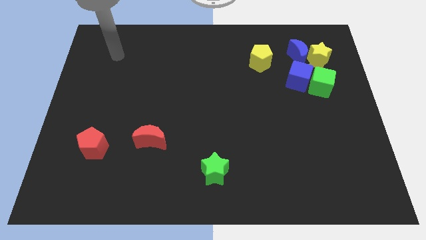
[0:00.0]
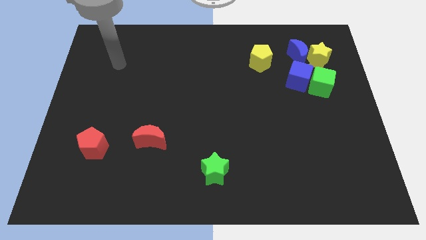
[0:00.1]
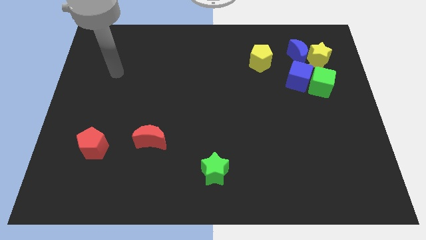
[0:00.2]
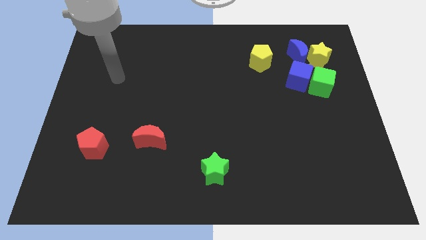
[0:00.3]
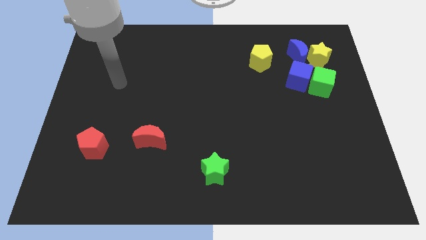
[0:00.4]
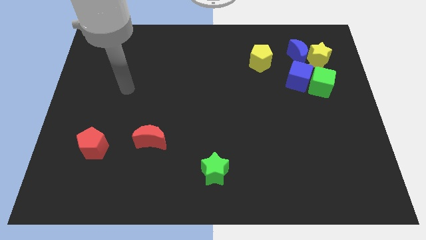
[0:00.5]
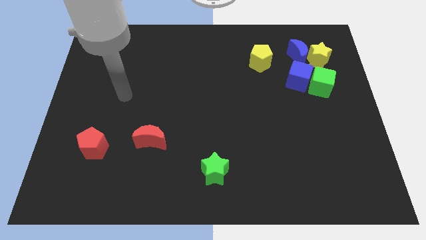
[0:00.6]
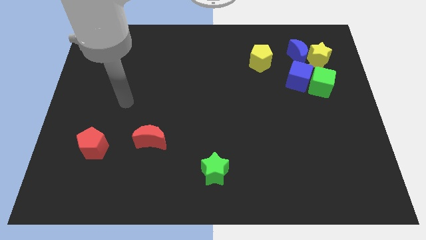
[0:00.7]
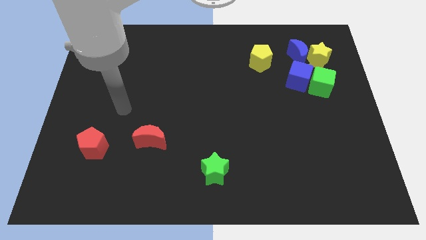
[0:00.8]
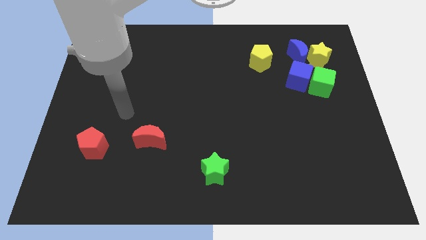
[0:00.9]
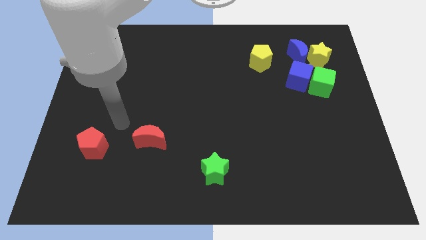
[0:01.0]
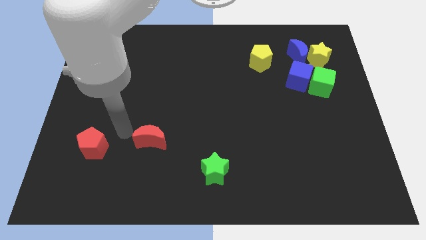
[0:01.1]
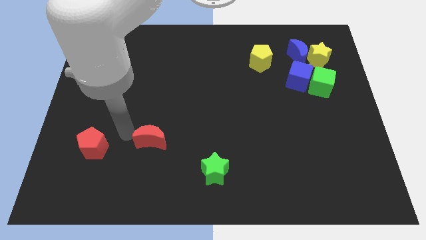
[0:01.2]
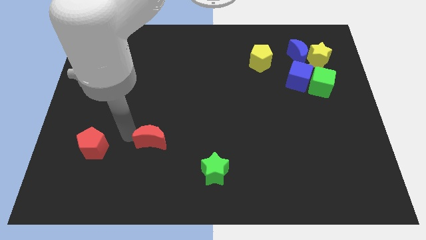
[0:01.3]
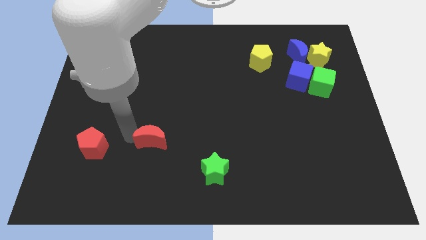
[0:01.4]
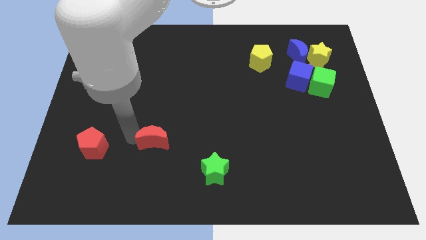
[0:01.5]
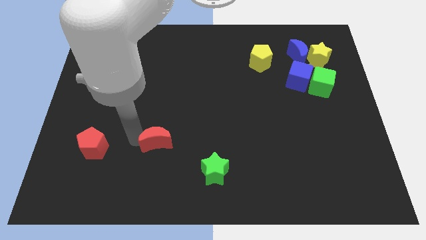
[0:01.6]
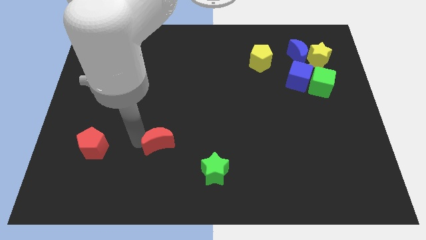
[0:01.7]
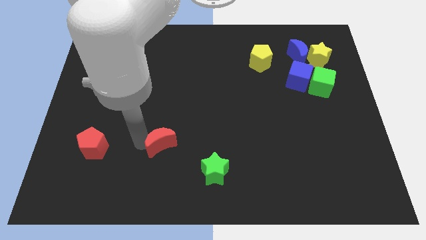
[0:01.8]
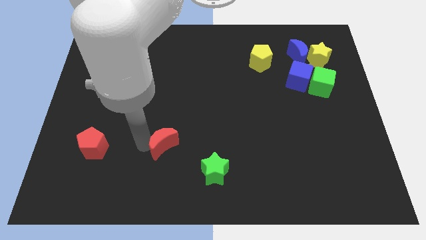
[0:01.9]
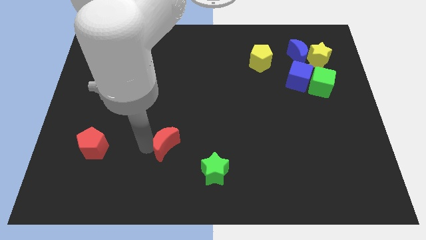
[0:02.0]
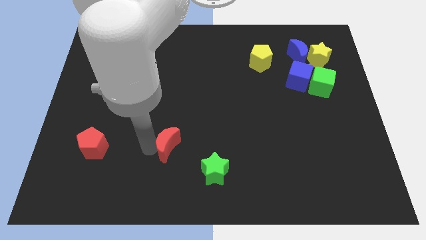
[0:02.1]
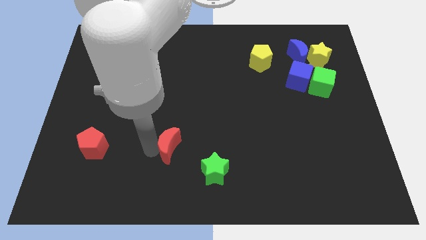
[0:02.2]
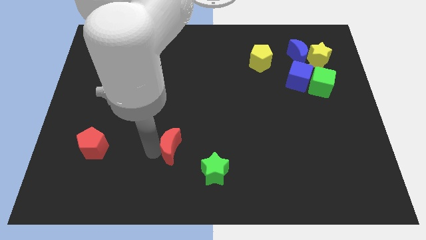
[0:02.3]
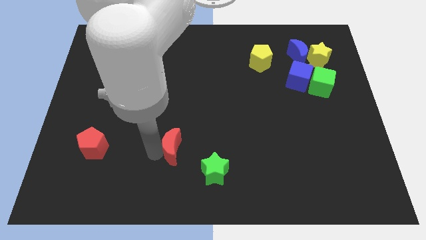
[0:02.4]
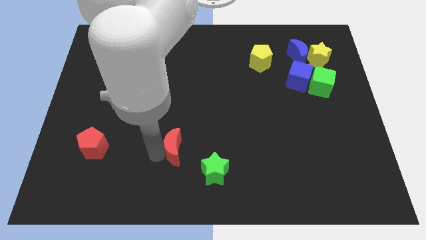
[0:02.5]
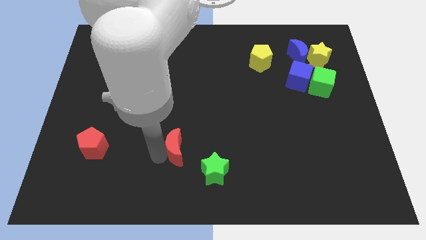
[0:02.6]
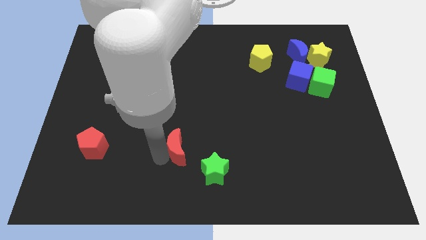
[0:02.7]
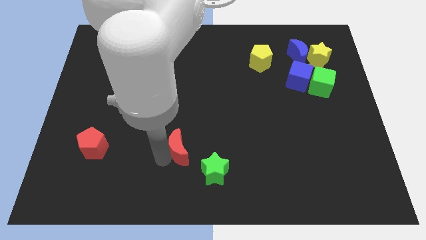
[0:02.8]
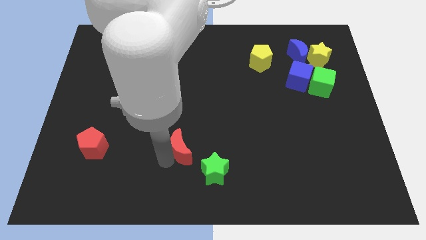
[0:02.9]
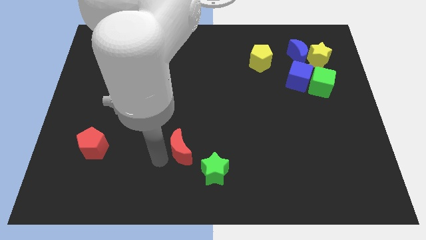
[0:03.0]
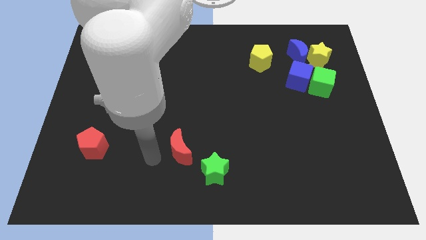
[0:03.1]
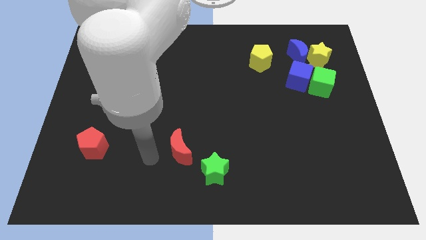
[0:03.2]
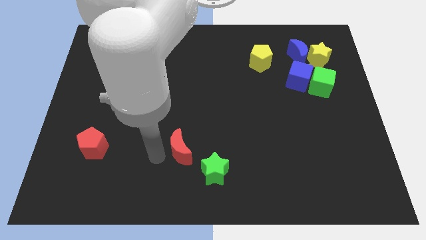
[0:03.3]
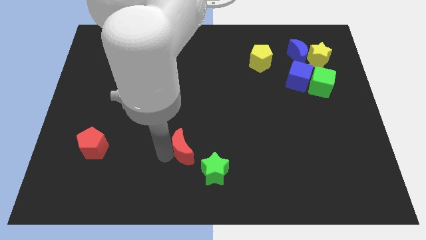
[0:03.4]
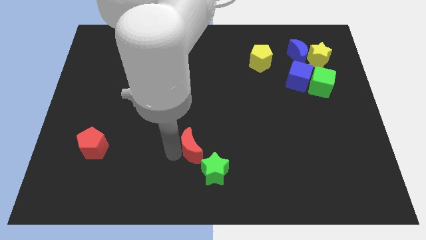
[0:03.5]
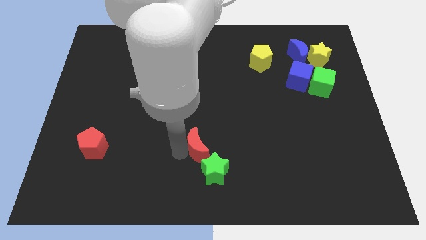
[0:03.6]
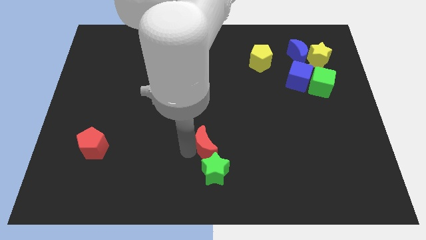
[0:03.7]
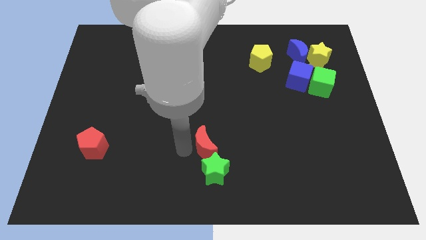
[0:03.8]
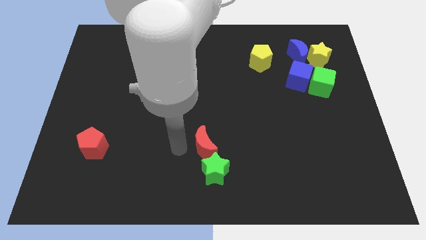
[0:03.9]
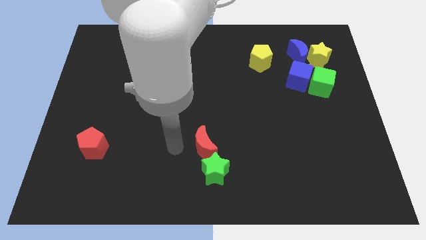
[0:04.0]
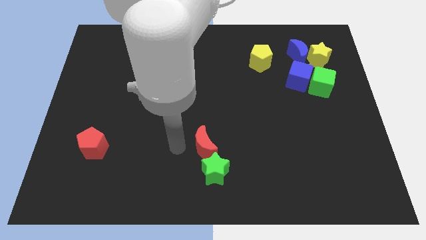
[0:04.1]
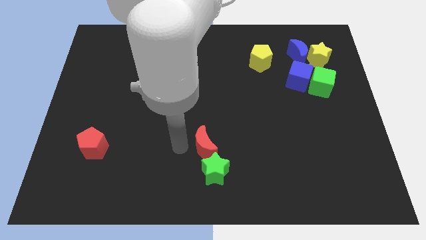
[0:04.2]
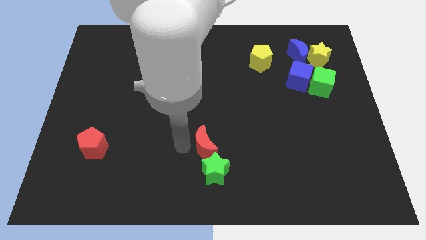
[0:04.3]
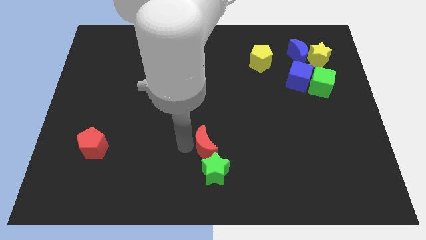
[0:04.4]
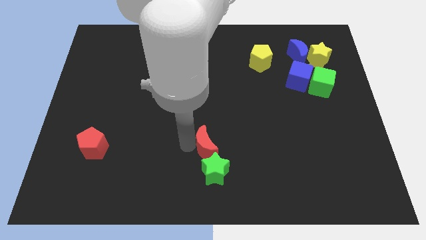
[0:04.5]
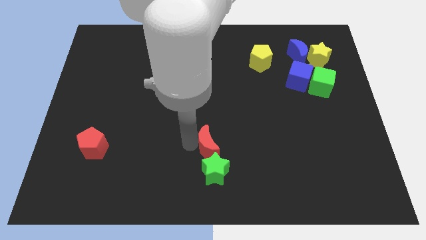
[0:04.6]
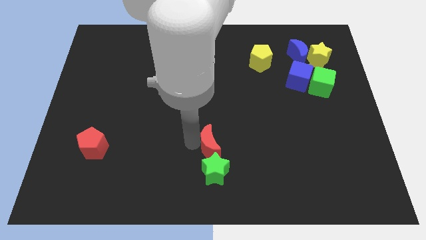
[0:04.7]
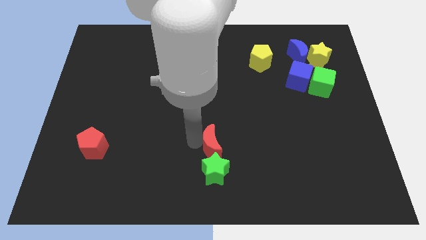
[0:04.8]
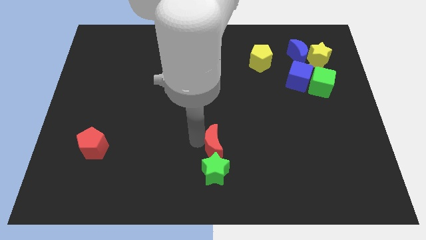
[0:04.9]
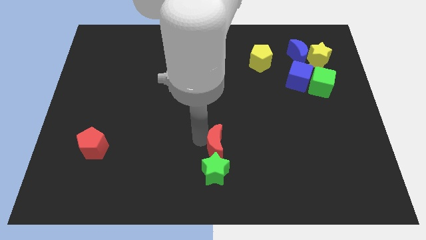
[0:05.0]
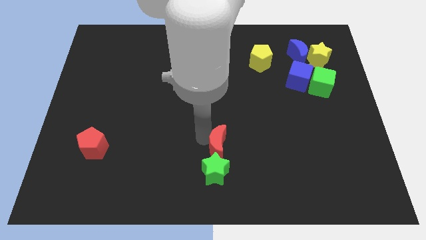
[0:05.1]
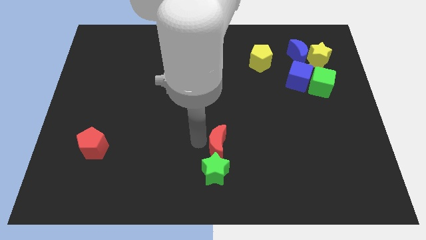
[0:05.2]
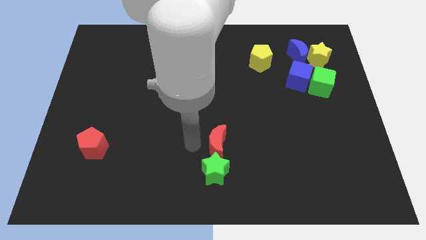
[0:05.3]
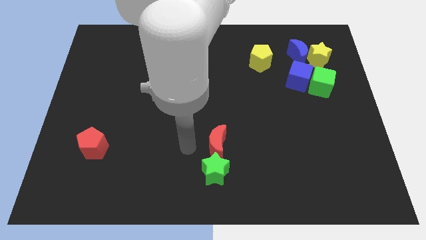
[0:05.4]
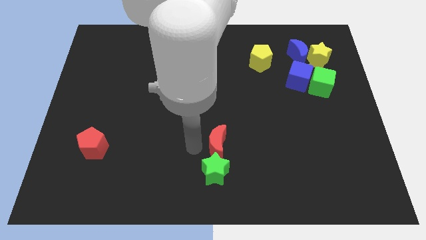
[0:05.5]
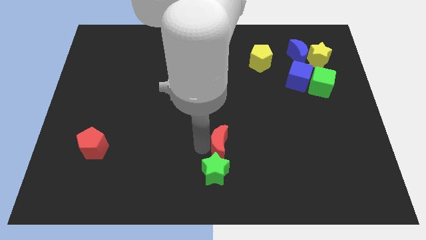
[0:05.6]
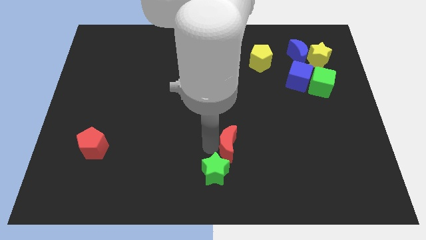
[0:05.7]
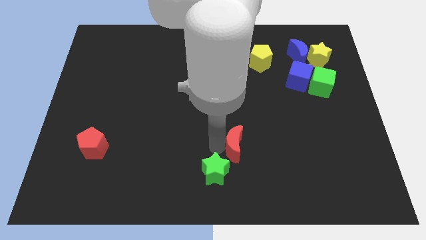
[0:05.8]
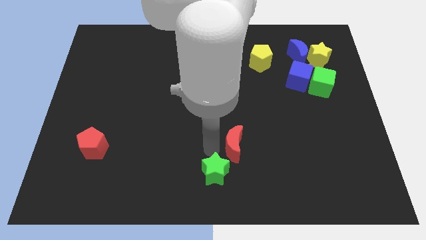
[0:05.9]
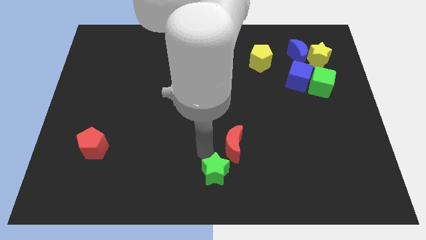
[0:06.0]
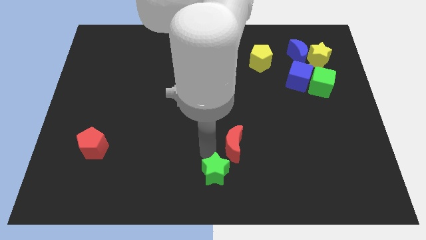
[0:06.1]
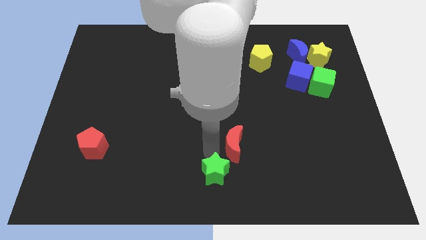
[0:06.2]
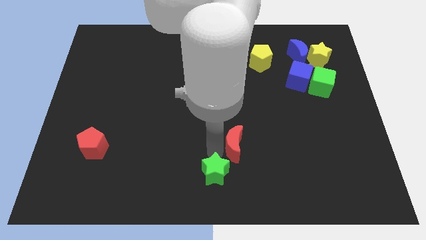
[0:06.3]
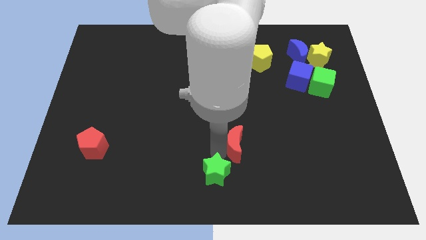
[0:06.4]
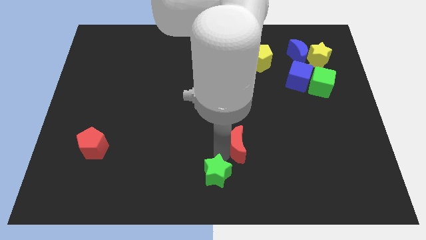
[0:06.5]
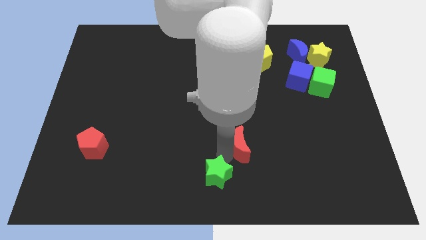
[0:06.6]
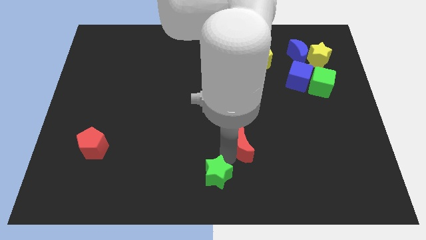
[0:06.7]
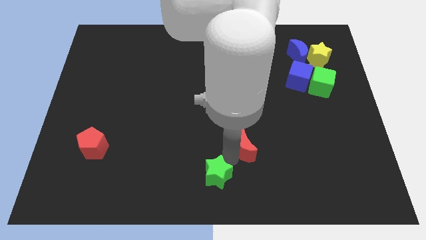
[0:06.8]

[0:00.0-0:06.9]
move the red moon to the right

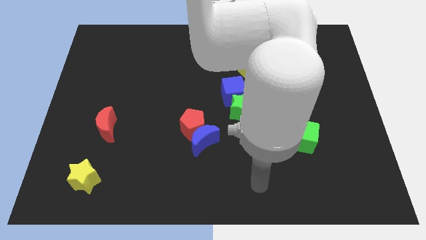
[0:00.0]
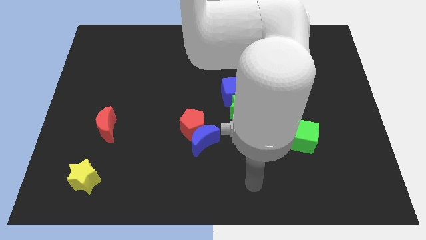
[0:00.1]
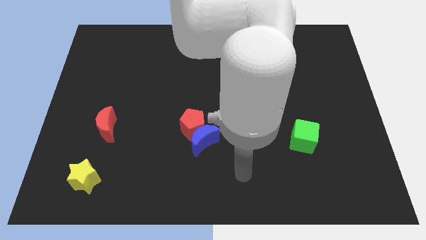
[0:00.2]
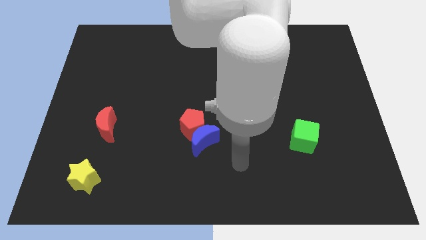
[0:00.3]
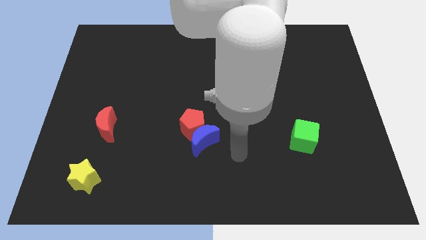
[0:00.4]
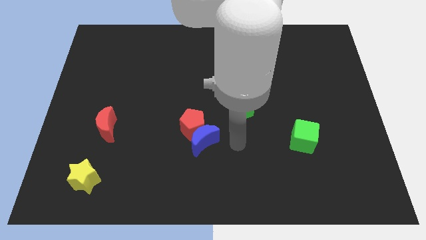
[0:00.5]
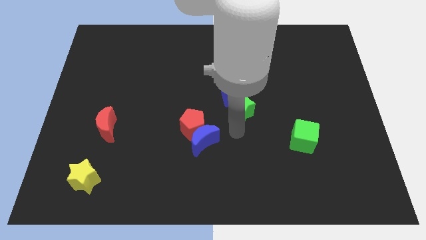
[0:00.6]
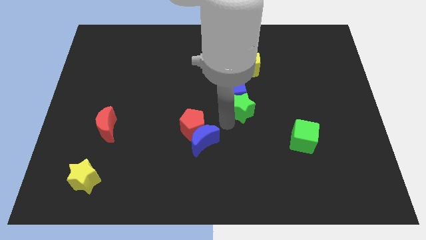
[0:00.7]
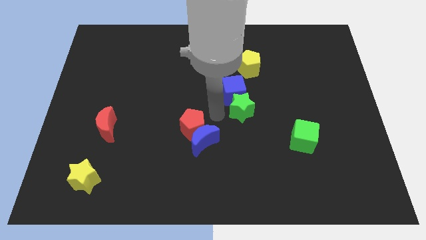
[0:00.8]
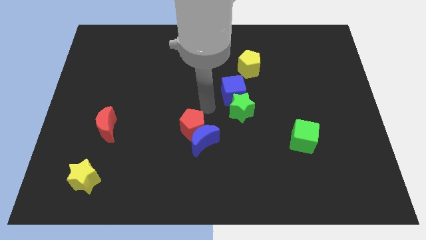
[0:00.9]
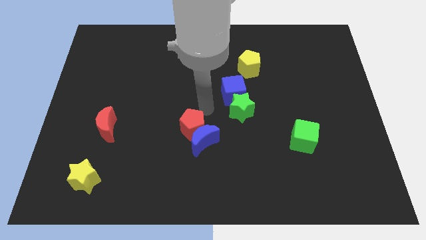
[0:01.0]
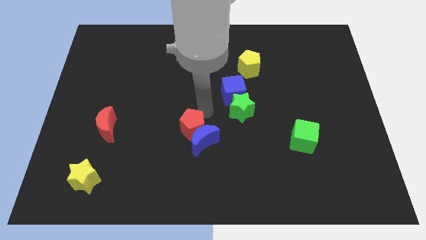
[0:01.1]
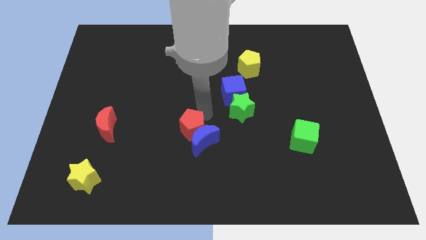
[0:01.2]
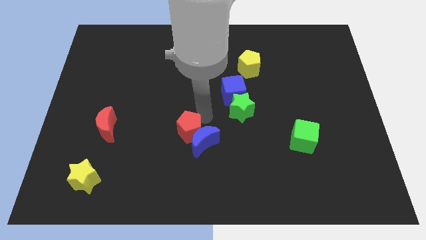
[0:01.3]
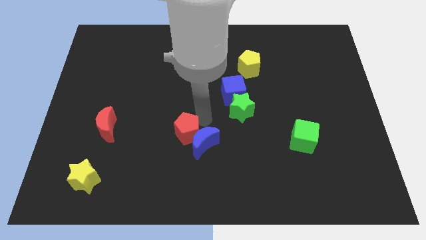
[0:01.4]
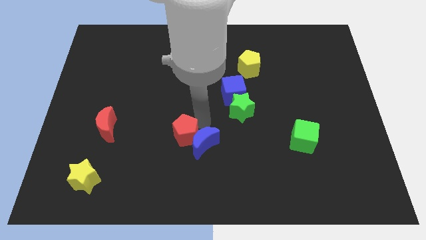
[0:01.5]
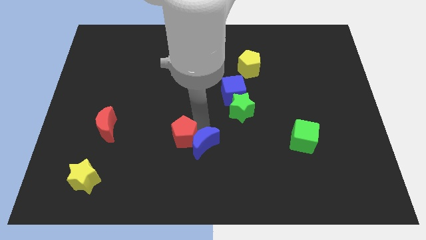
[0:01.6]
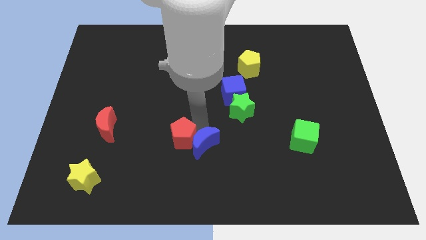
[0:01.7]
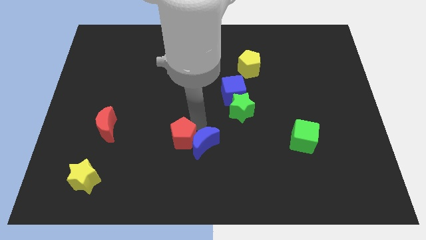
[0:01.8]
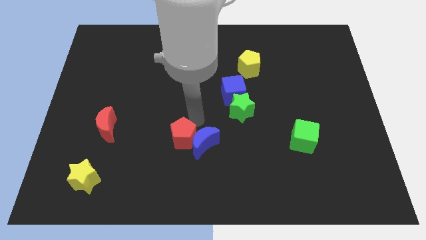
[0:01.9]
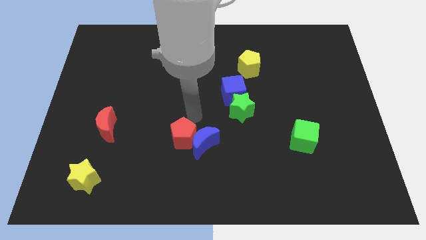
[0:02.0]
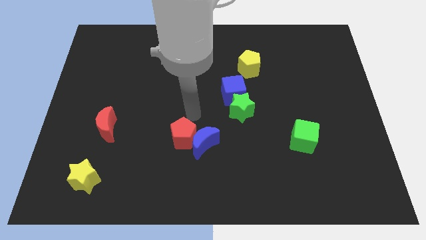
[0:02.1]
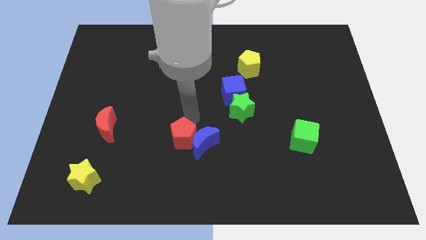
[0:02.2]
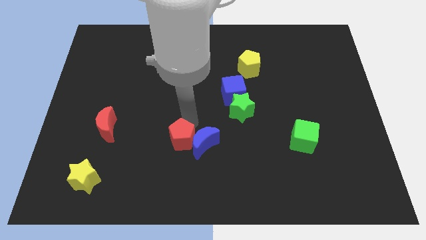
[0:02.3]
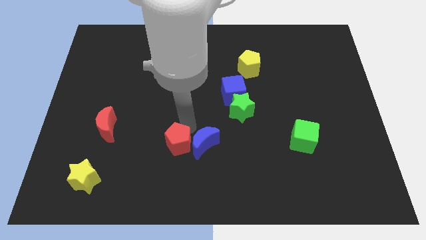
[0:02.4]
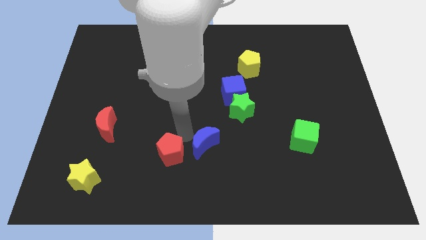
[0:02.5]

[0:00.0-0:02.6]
push the red pentagon diagonally downwards and to the left slightly
